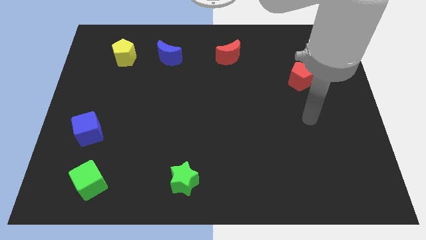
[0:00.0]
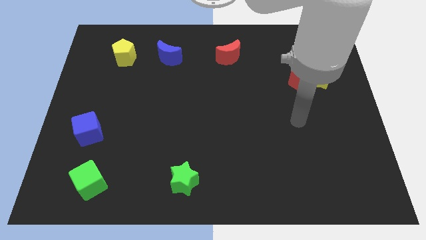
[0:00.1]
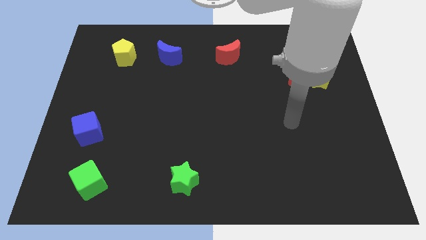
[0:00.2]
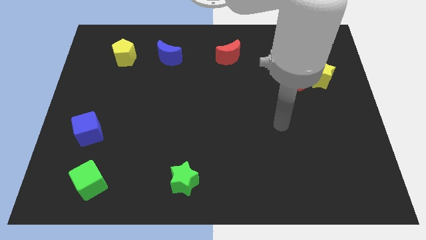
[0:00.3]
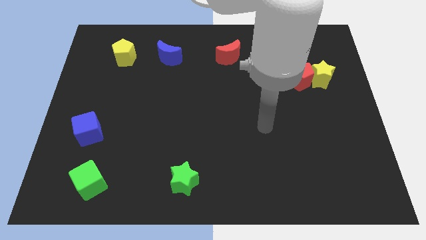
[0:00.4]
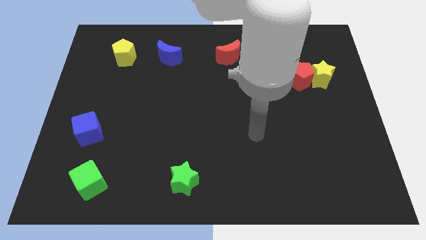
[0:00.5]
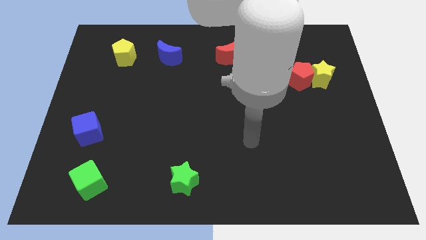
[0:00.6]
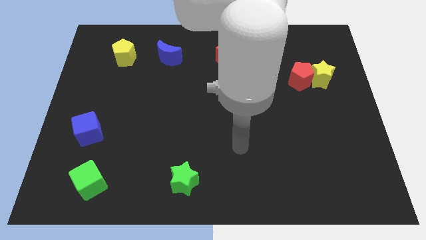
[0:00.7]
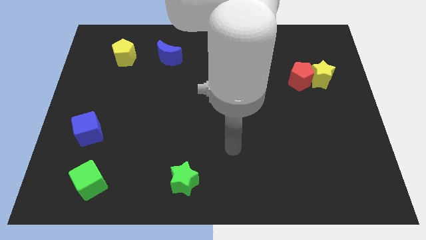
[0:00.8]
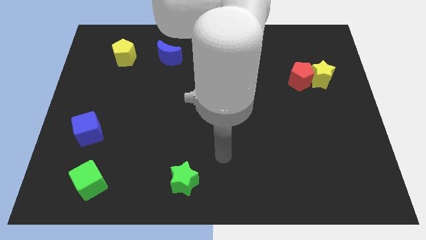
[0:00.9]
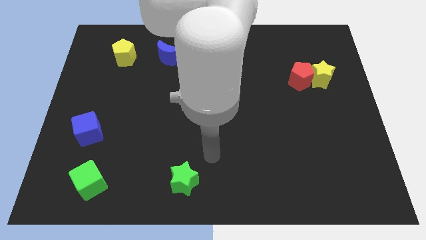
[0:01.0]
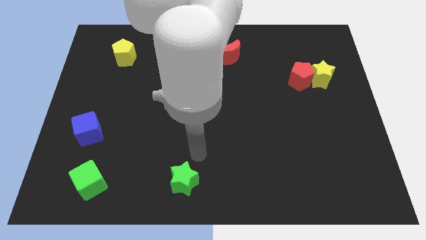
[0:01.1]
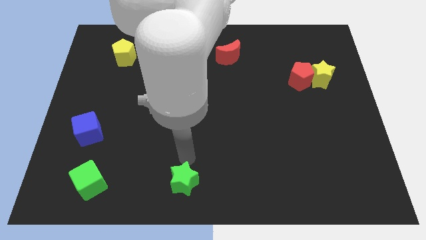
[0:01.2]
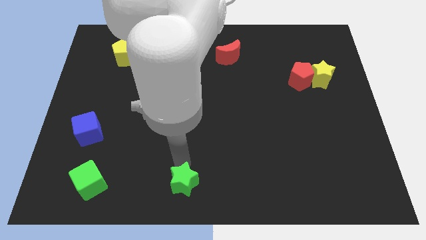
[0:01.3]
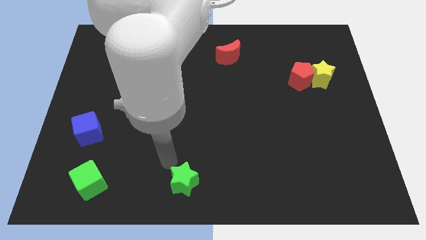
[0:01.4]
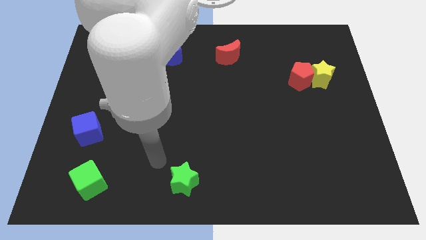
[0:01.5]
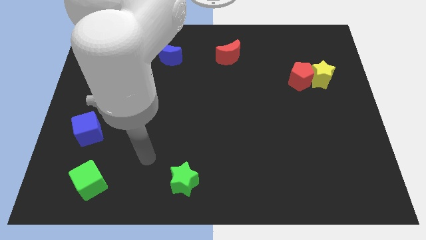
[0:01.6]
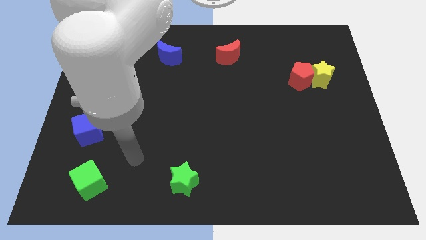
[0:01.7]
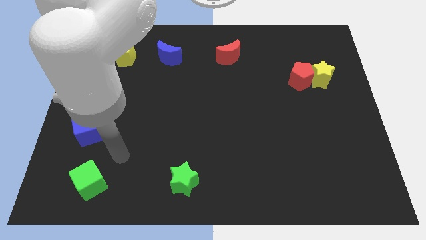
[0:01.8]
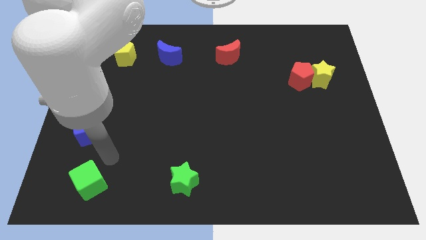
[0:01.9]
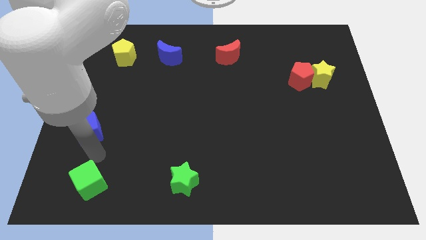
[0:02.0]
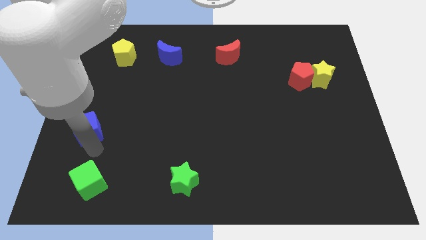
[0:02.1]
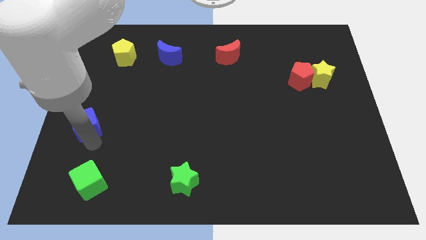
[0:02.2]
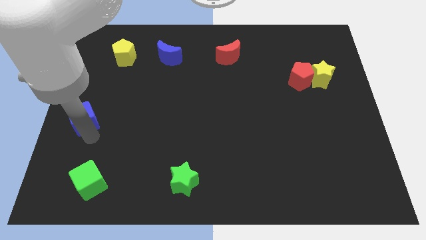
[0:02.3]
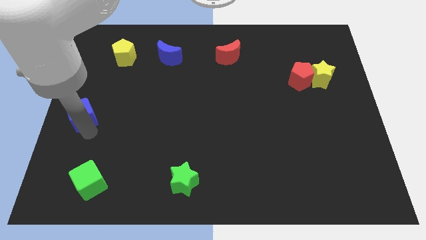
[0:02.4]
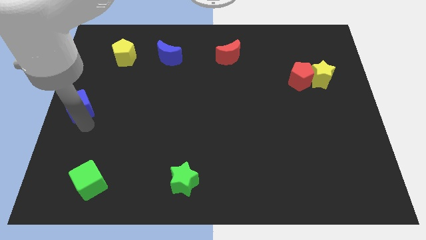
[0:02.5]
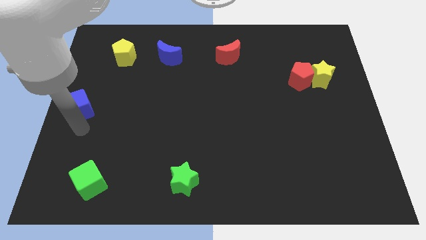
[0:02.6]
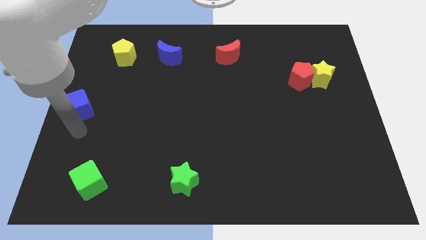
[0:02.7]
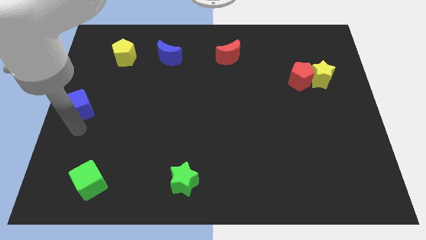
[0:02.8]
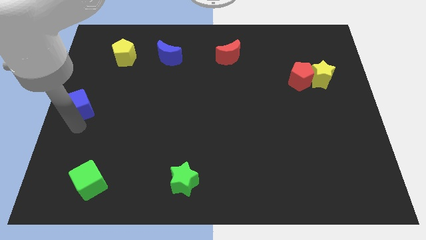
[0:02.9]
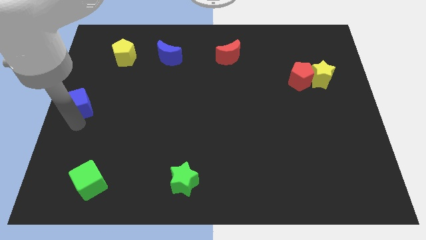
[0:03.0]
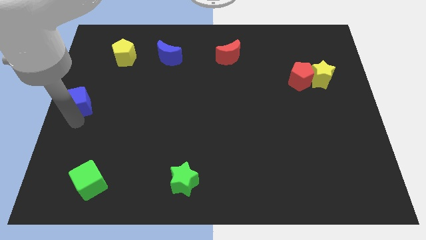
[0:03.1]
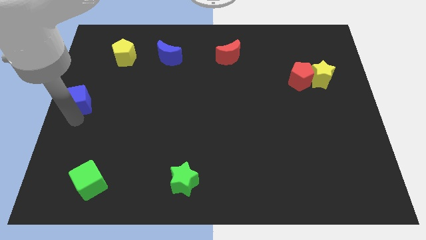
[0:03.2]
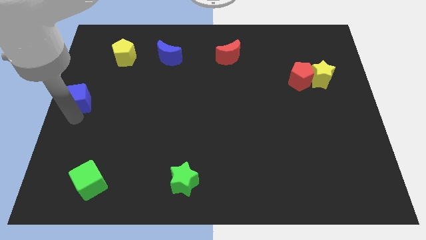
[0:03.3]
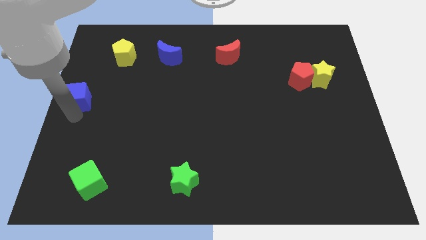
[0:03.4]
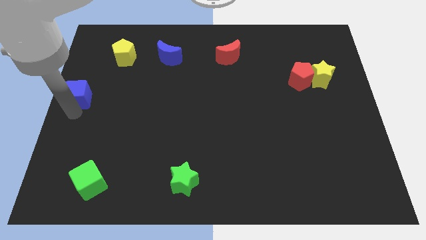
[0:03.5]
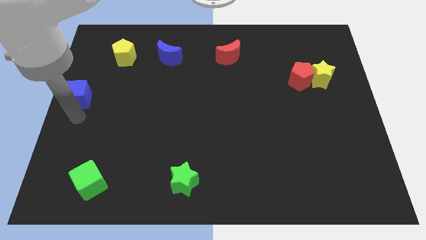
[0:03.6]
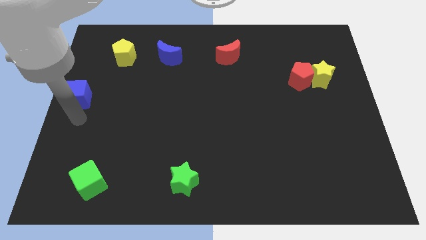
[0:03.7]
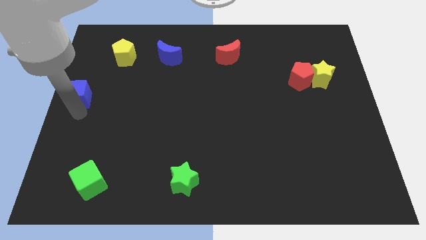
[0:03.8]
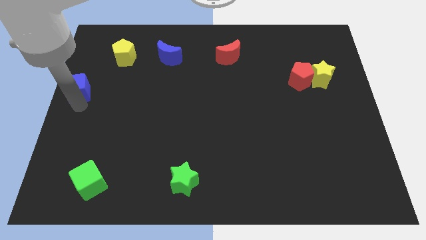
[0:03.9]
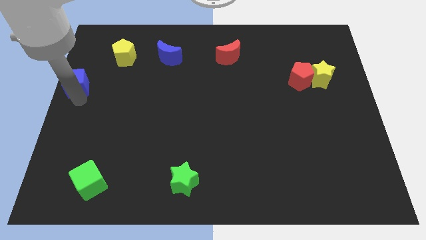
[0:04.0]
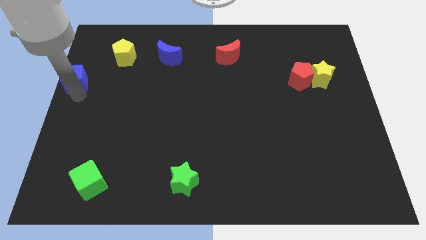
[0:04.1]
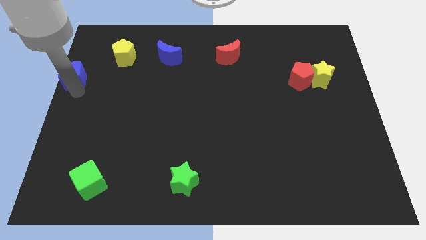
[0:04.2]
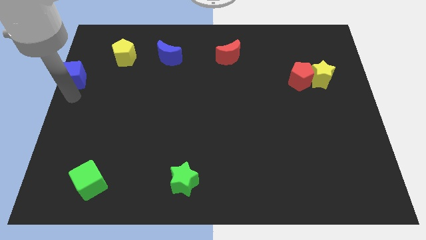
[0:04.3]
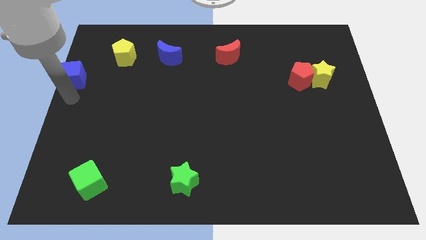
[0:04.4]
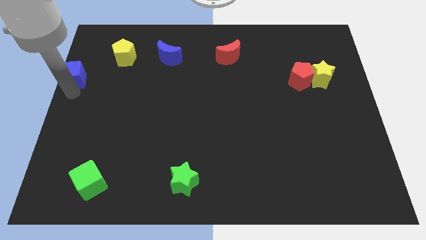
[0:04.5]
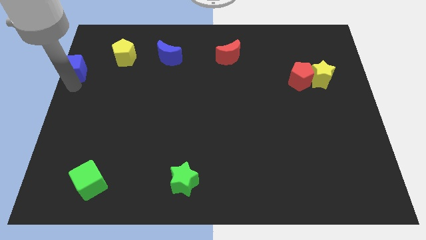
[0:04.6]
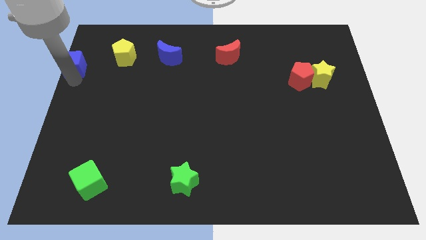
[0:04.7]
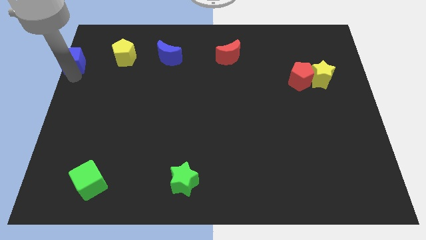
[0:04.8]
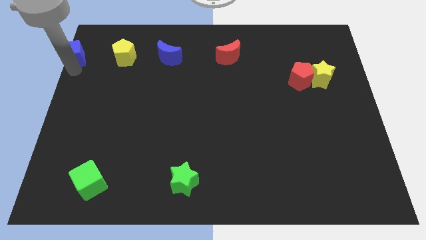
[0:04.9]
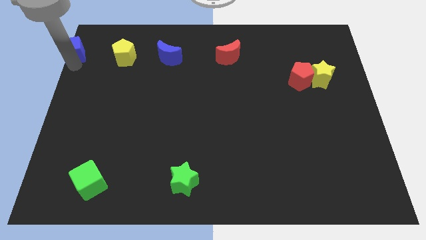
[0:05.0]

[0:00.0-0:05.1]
put the blue cube to the upper left corner

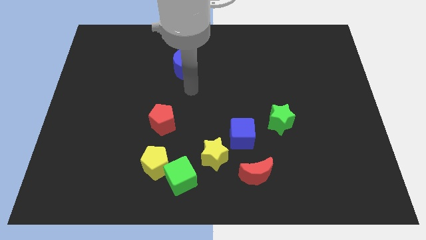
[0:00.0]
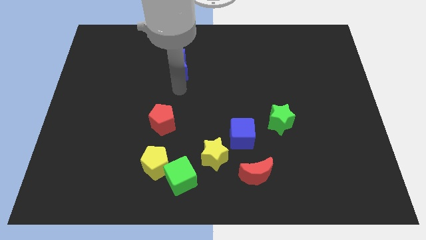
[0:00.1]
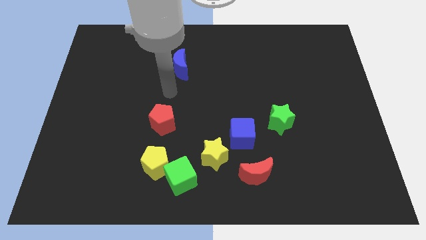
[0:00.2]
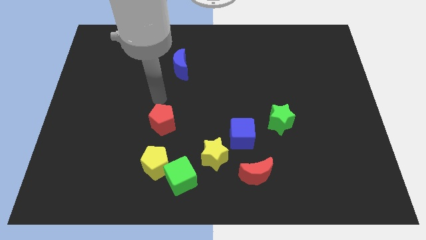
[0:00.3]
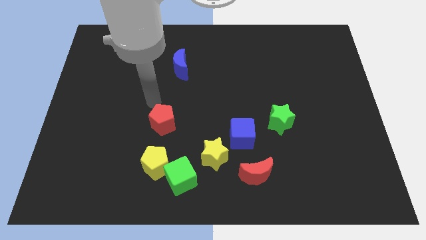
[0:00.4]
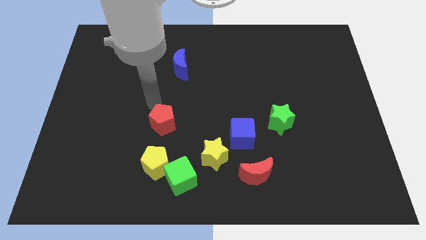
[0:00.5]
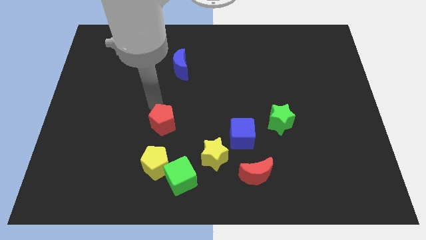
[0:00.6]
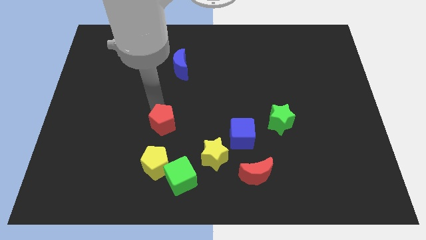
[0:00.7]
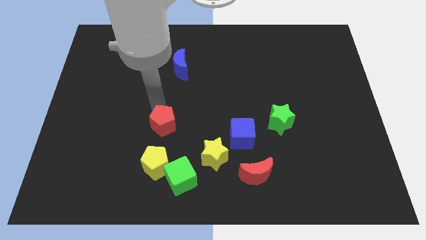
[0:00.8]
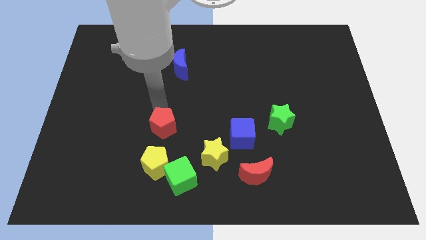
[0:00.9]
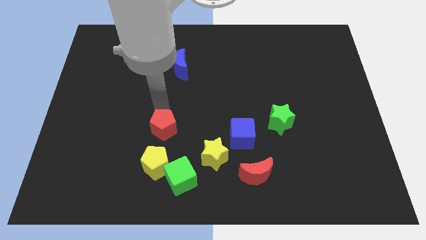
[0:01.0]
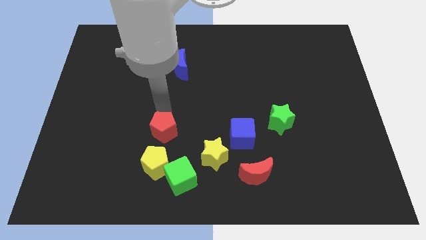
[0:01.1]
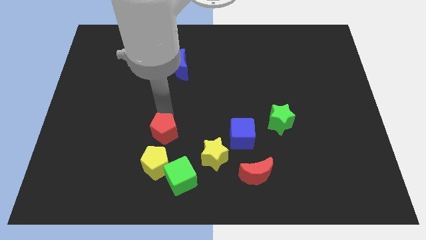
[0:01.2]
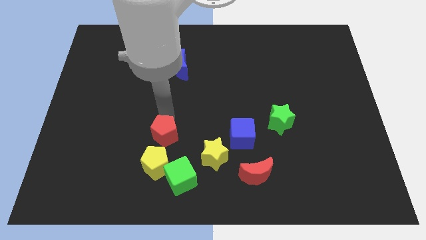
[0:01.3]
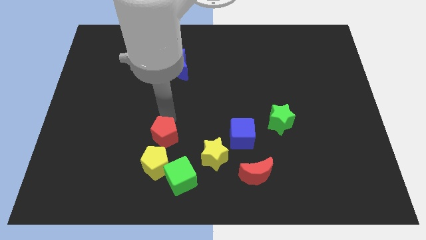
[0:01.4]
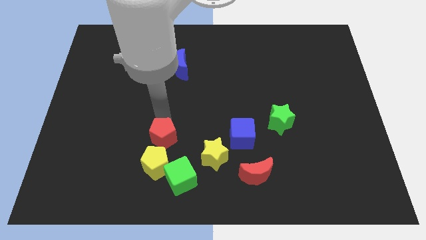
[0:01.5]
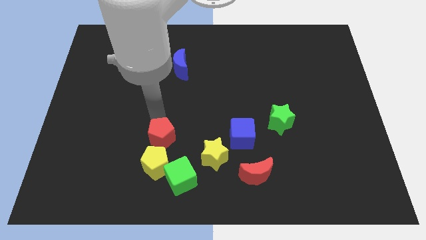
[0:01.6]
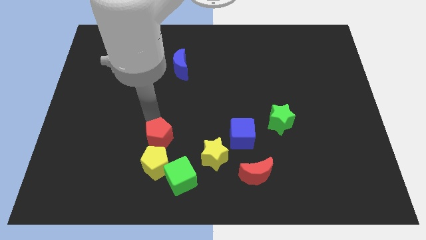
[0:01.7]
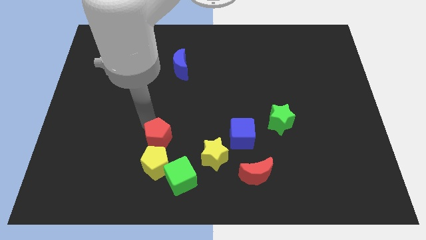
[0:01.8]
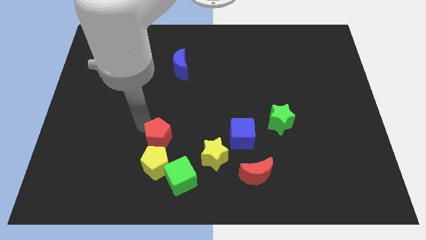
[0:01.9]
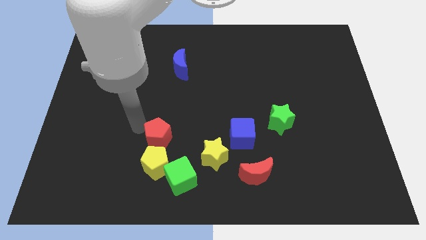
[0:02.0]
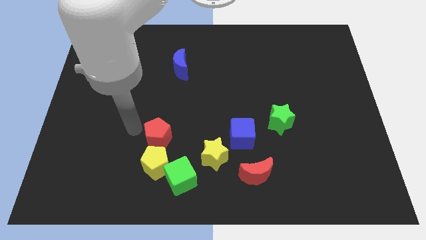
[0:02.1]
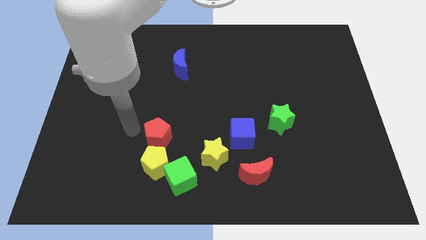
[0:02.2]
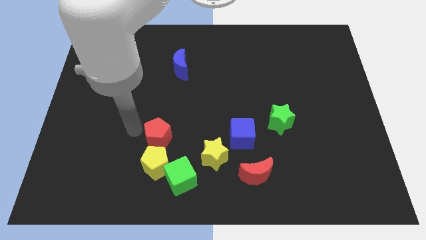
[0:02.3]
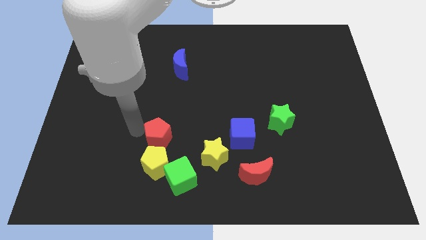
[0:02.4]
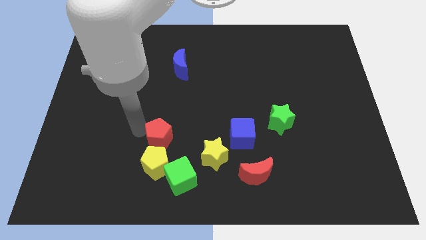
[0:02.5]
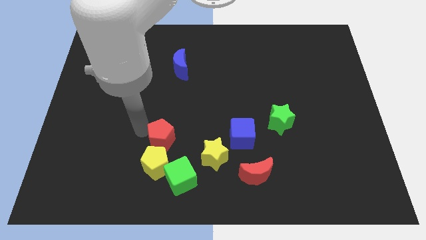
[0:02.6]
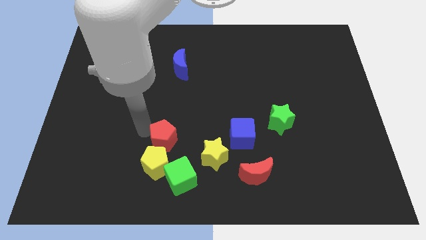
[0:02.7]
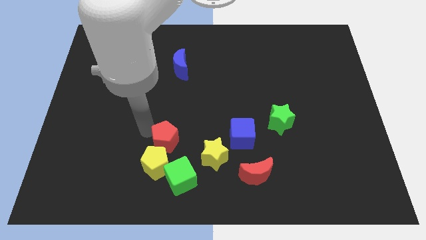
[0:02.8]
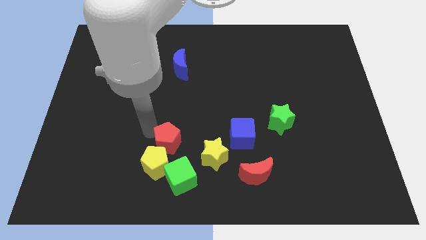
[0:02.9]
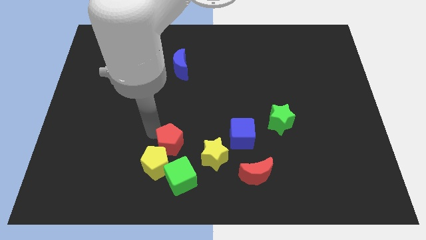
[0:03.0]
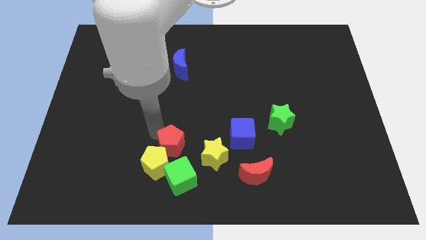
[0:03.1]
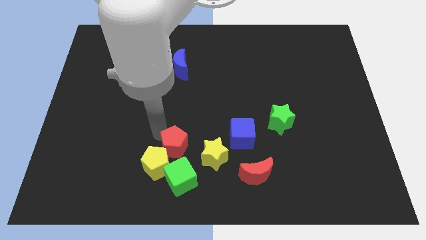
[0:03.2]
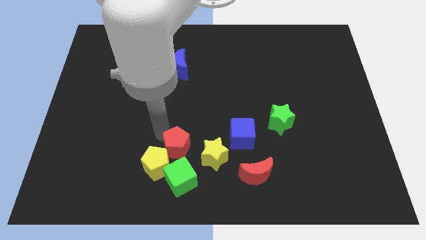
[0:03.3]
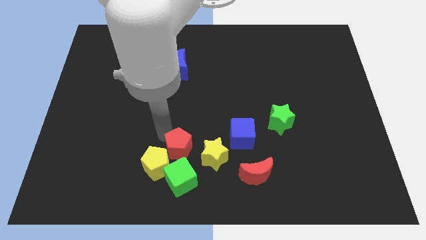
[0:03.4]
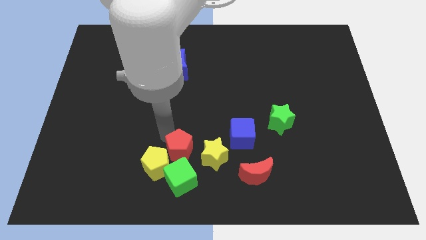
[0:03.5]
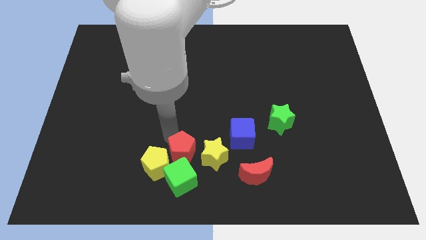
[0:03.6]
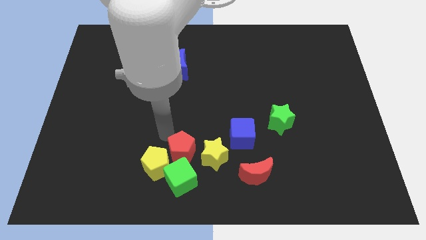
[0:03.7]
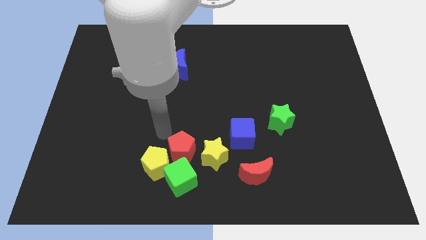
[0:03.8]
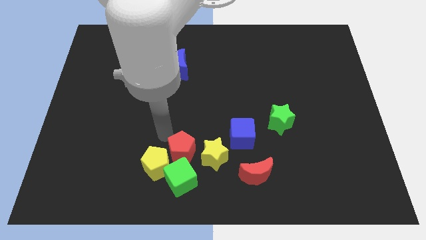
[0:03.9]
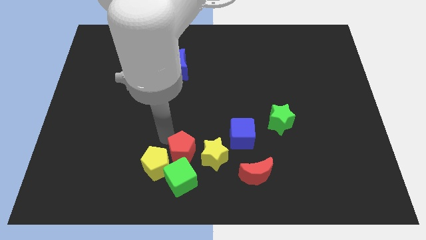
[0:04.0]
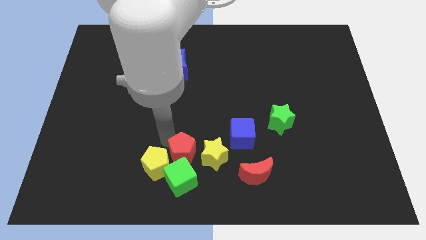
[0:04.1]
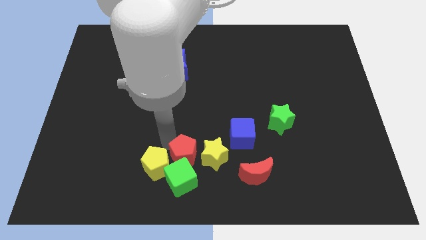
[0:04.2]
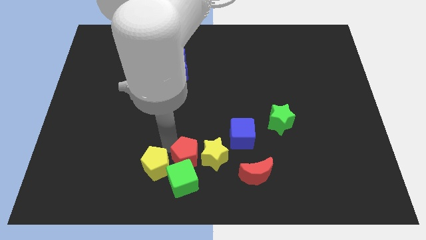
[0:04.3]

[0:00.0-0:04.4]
slide the red pentagon to the bottom
